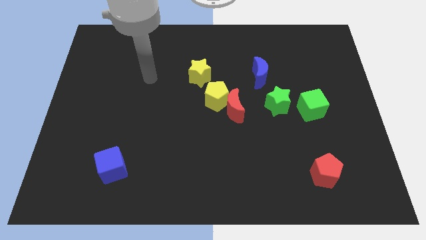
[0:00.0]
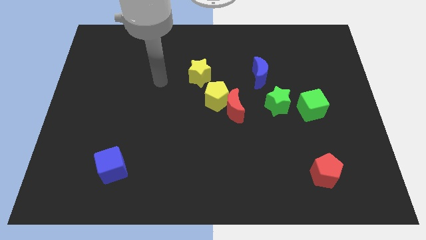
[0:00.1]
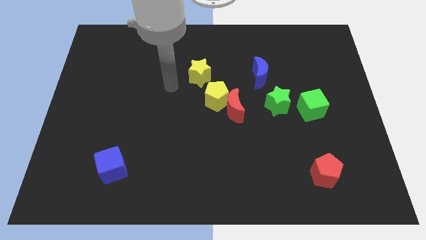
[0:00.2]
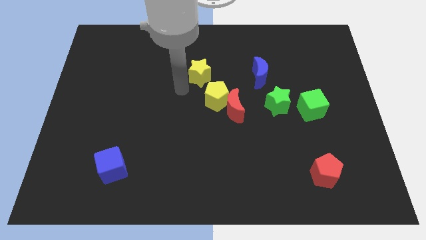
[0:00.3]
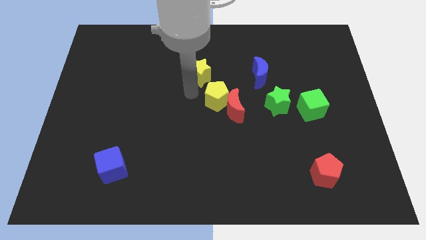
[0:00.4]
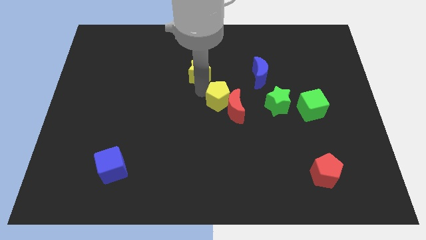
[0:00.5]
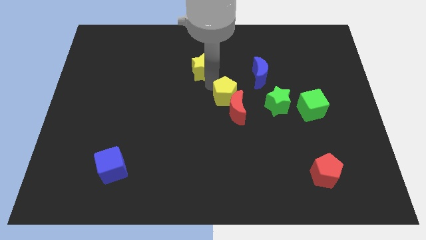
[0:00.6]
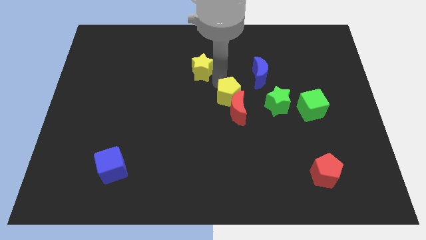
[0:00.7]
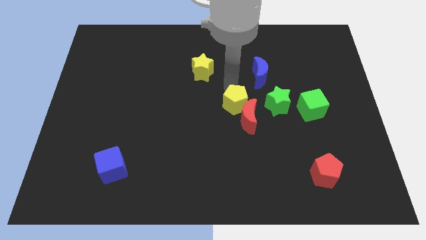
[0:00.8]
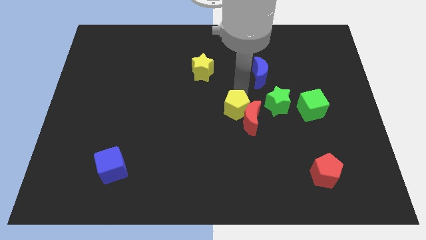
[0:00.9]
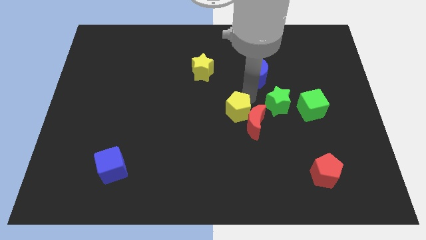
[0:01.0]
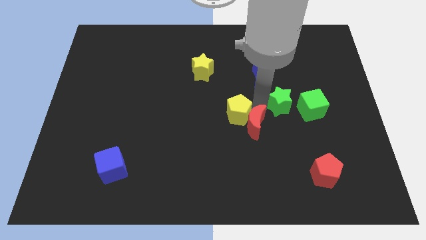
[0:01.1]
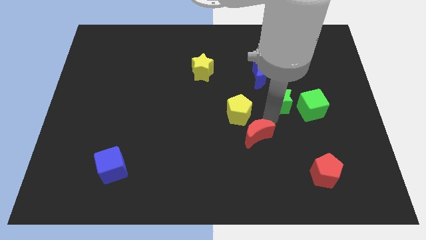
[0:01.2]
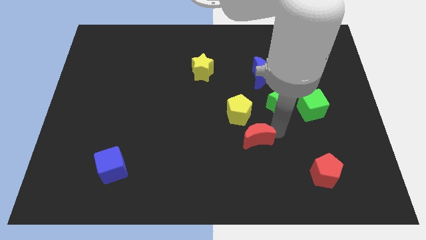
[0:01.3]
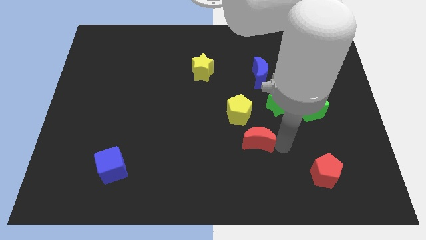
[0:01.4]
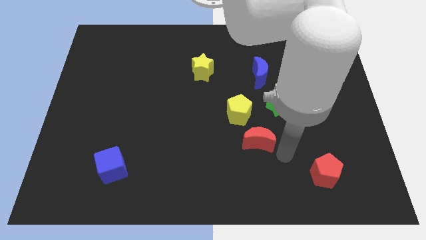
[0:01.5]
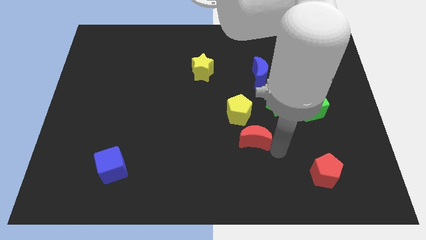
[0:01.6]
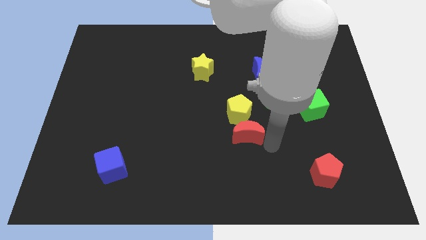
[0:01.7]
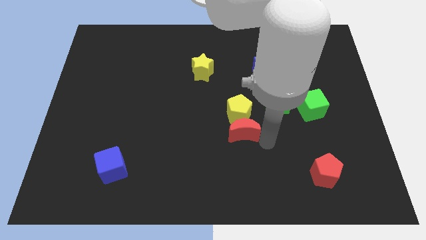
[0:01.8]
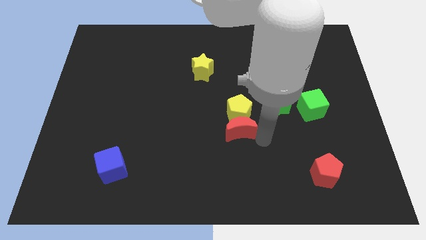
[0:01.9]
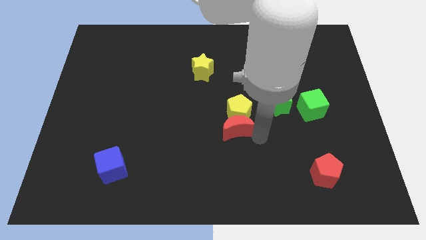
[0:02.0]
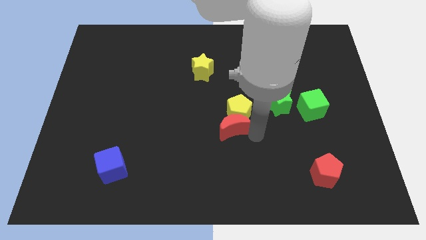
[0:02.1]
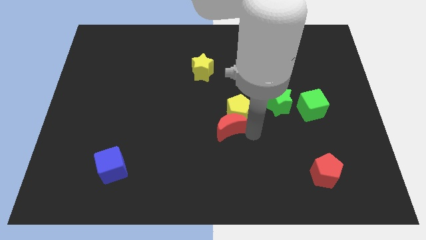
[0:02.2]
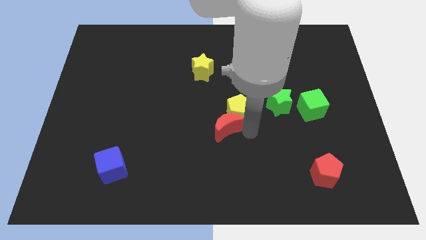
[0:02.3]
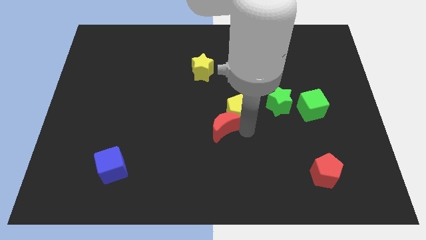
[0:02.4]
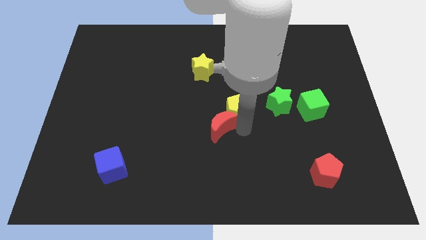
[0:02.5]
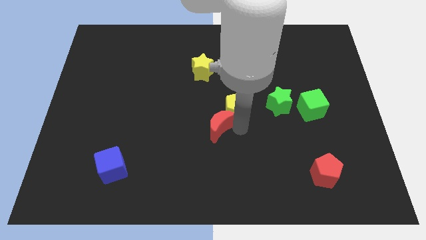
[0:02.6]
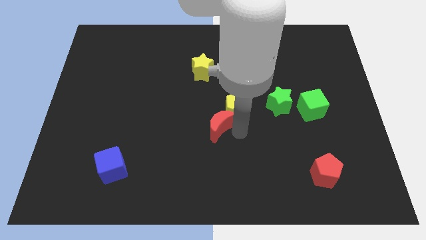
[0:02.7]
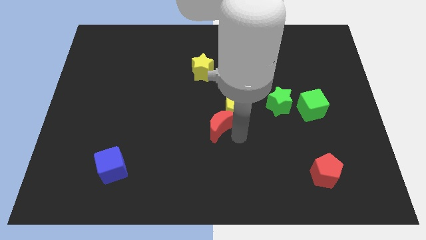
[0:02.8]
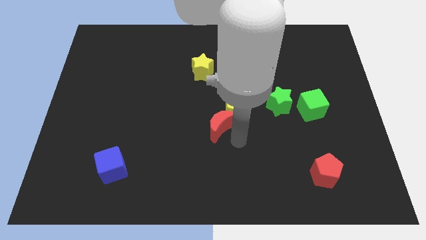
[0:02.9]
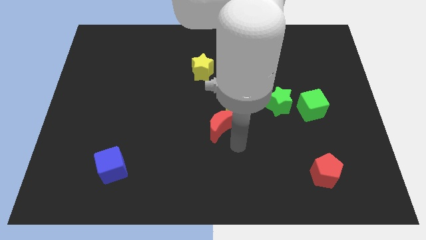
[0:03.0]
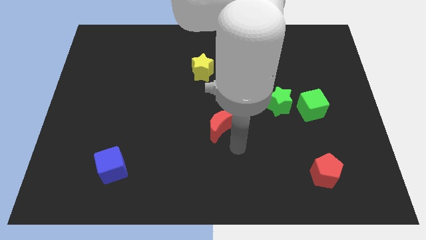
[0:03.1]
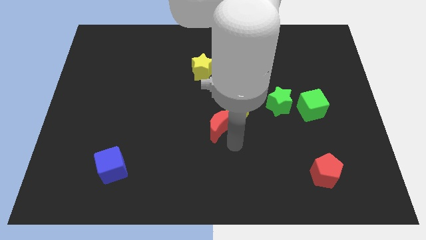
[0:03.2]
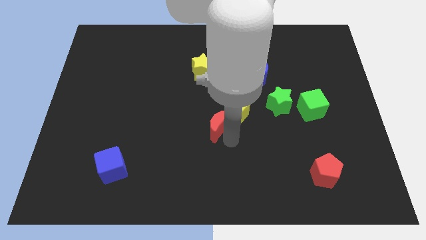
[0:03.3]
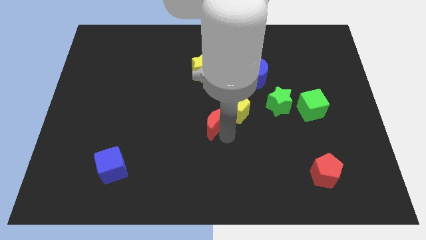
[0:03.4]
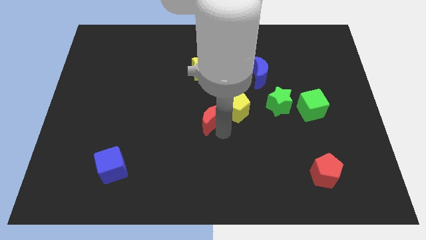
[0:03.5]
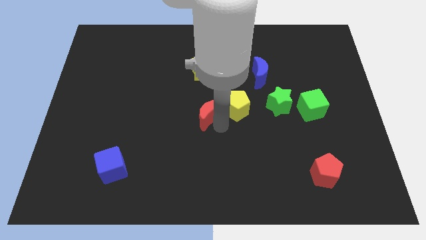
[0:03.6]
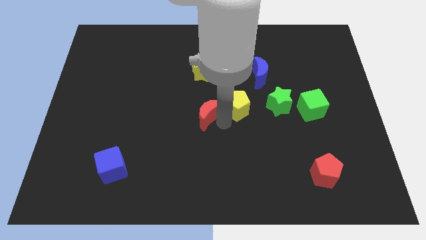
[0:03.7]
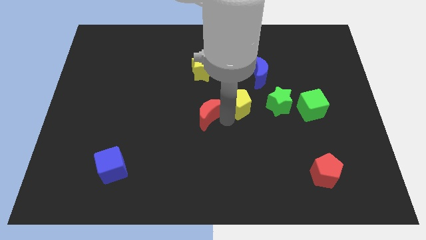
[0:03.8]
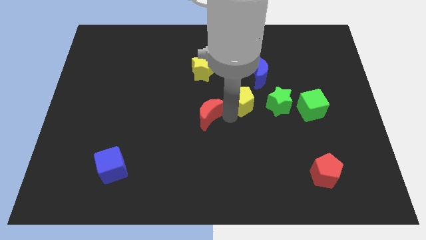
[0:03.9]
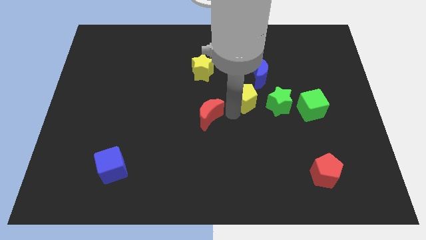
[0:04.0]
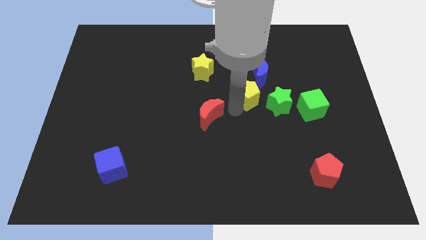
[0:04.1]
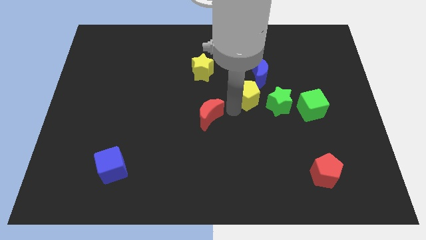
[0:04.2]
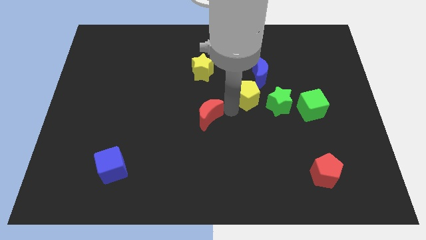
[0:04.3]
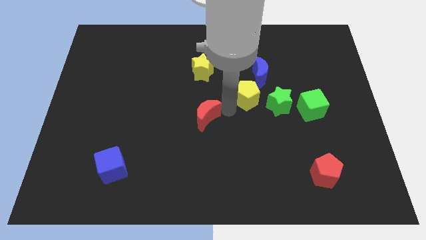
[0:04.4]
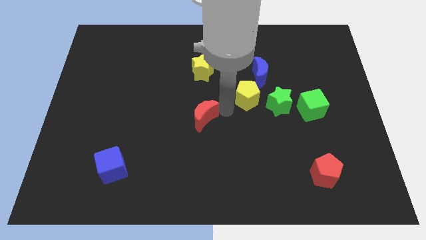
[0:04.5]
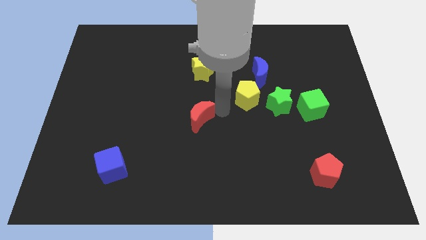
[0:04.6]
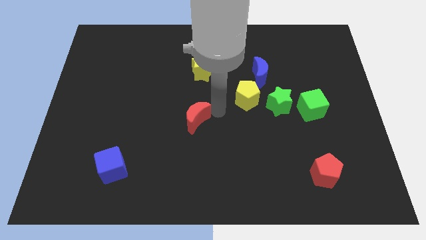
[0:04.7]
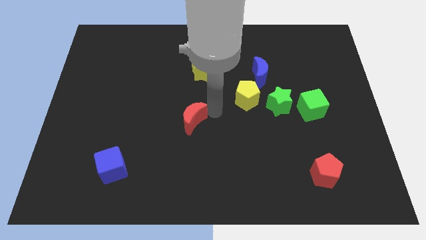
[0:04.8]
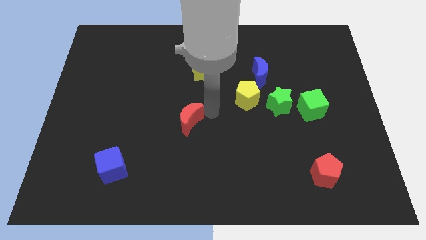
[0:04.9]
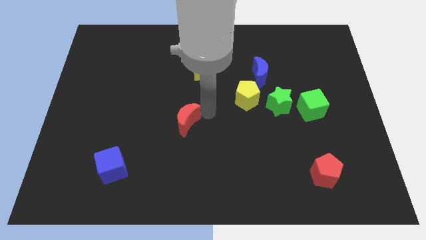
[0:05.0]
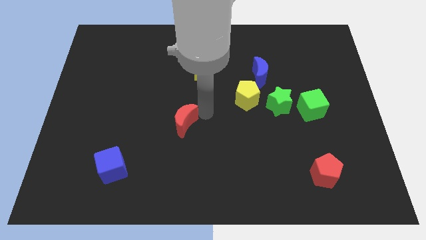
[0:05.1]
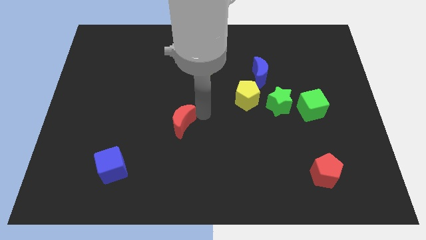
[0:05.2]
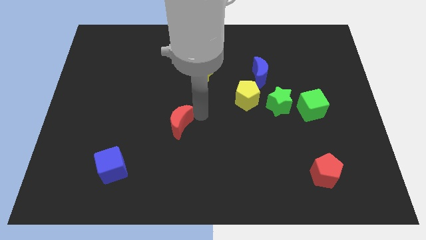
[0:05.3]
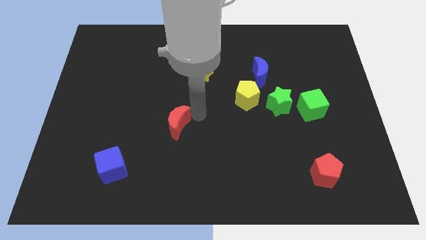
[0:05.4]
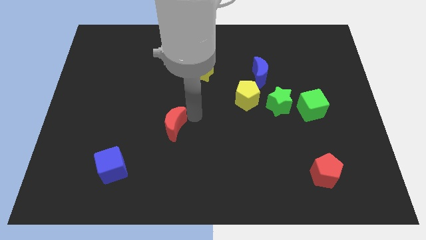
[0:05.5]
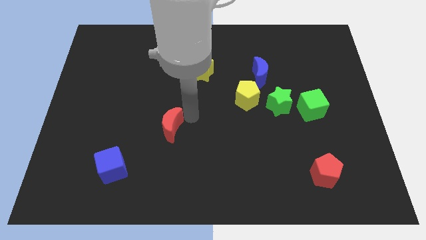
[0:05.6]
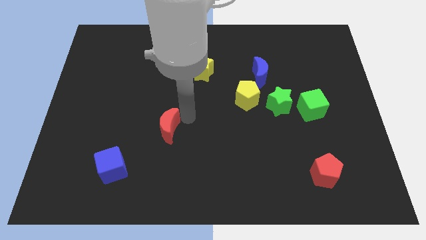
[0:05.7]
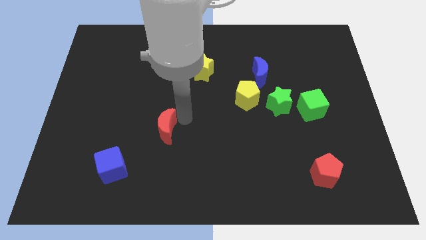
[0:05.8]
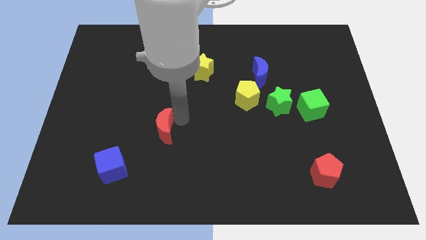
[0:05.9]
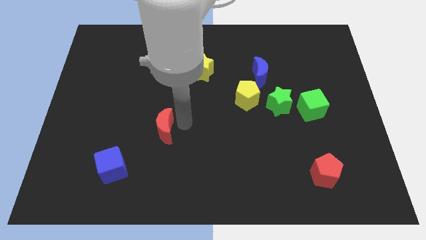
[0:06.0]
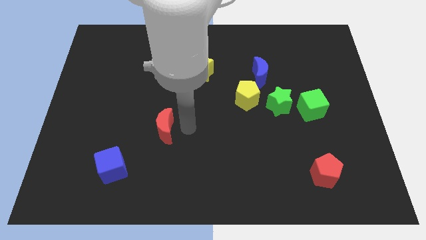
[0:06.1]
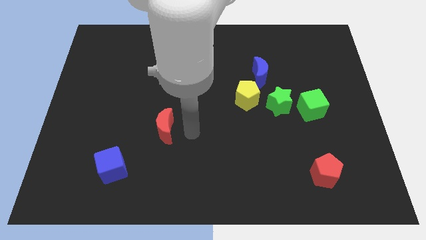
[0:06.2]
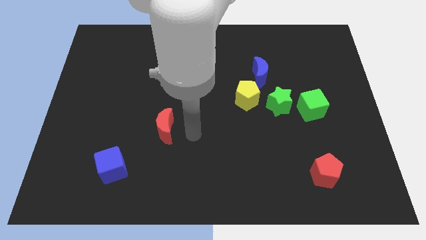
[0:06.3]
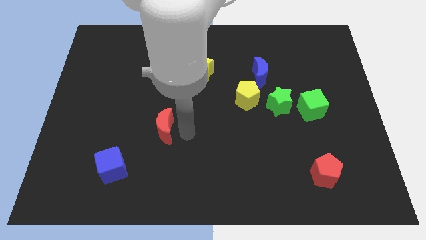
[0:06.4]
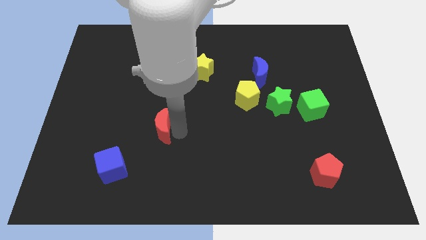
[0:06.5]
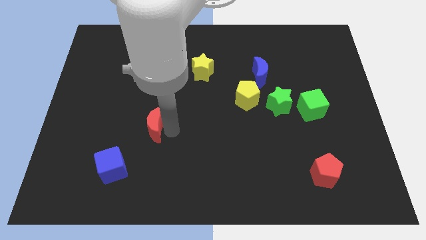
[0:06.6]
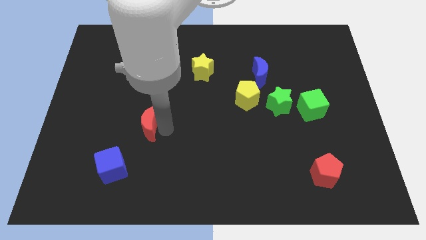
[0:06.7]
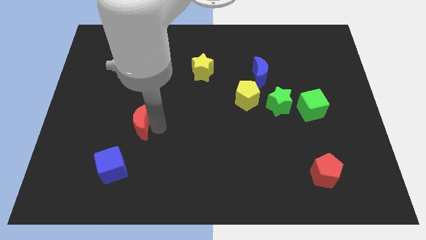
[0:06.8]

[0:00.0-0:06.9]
put the red moon to the top of the blue cube

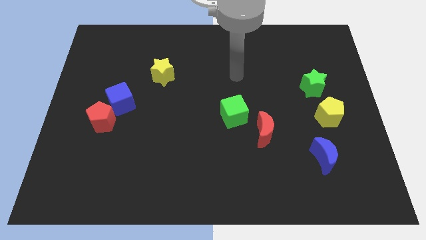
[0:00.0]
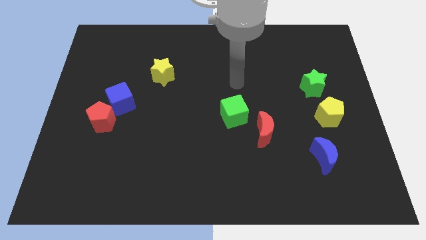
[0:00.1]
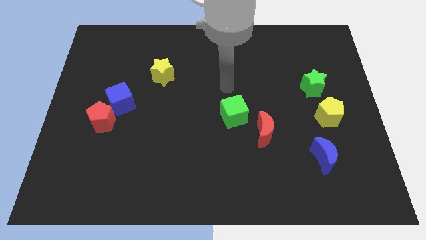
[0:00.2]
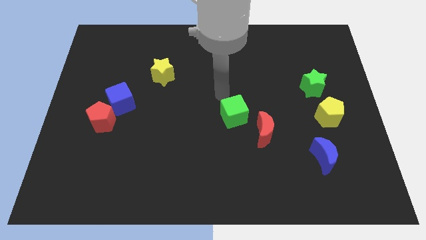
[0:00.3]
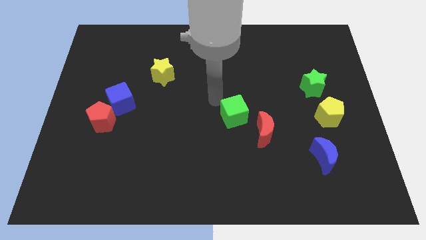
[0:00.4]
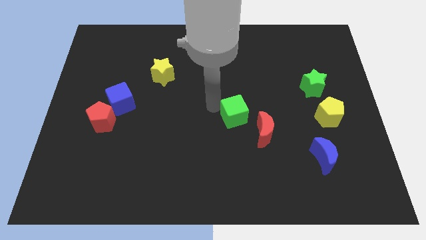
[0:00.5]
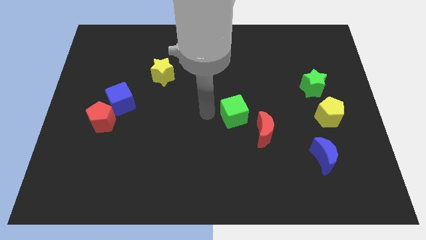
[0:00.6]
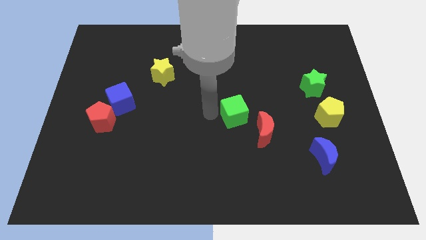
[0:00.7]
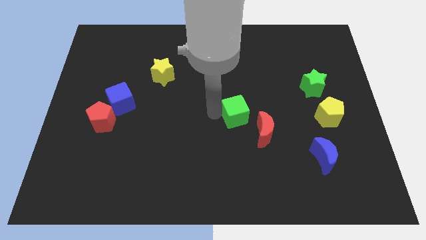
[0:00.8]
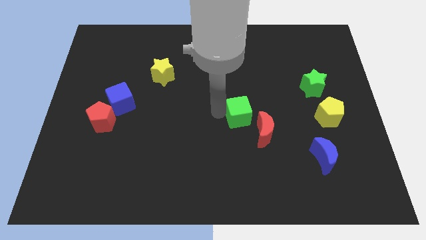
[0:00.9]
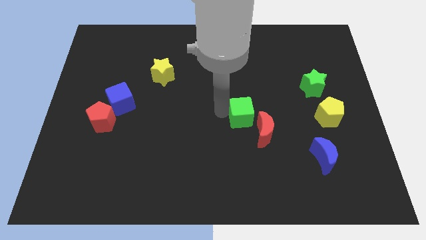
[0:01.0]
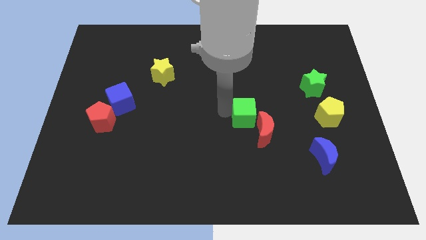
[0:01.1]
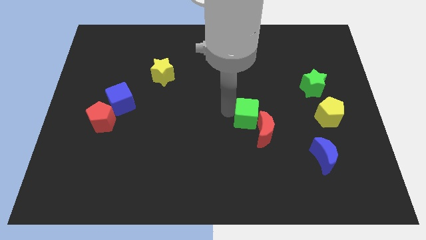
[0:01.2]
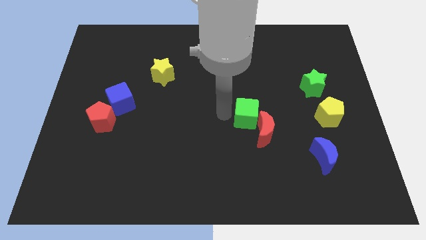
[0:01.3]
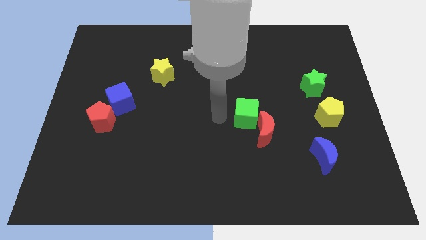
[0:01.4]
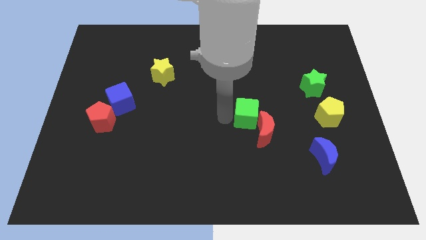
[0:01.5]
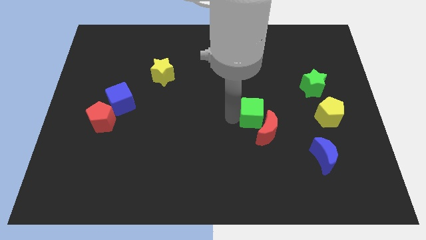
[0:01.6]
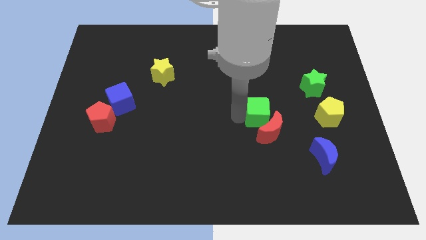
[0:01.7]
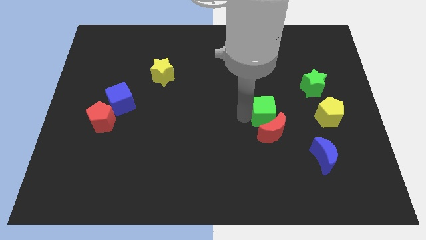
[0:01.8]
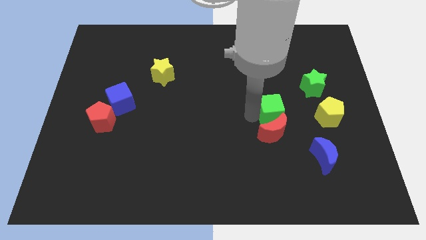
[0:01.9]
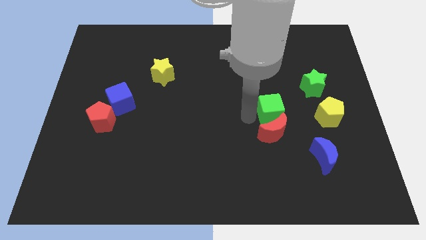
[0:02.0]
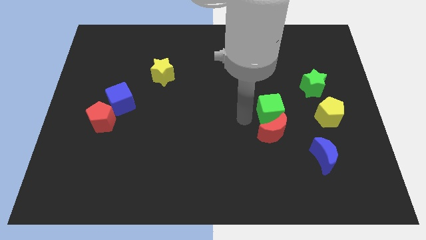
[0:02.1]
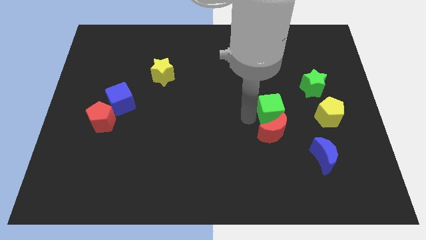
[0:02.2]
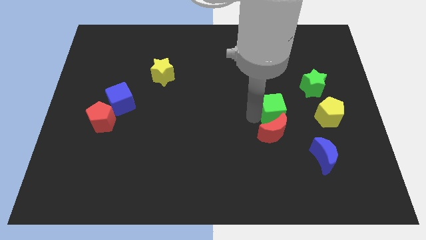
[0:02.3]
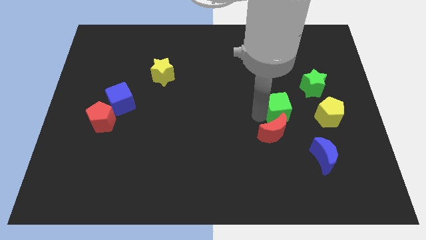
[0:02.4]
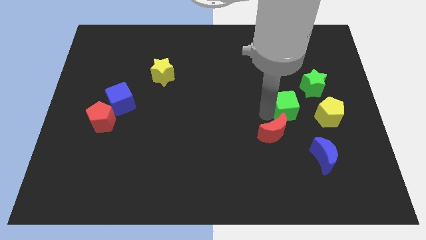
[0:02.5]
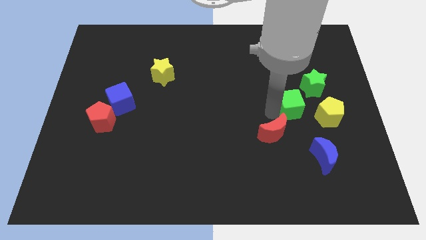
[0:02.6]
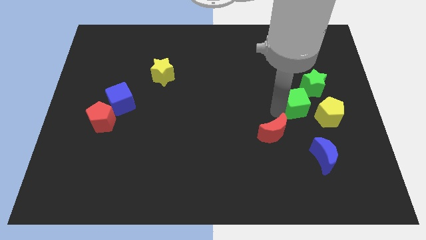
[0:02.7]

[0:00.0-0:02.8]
push the green cube above the blue moon
